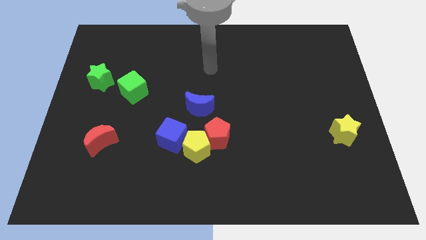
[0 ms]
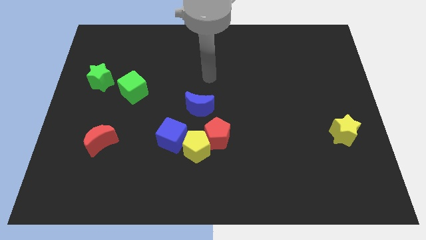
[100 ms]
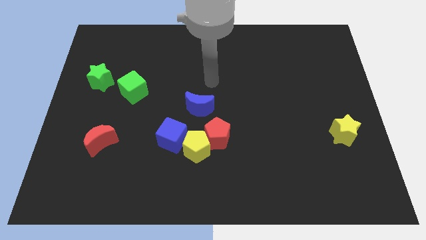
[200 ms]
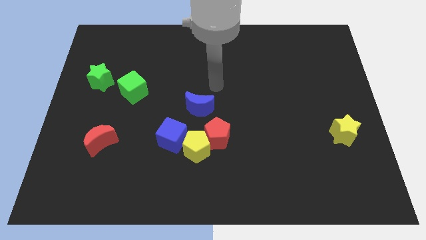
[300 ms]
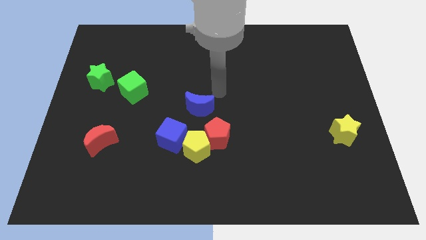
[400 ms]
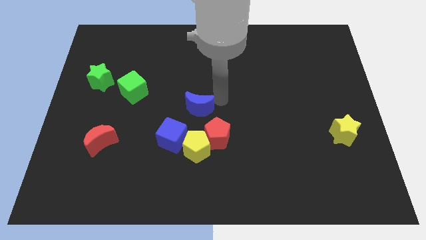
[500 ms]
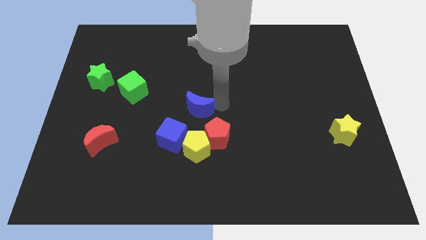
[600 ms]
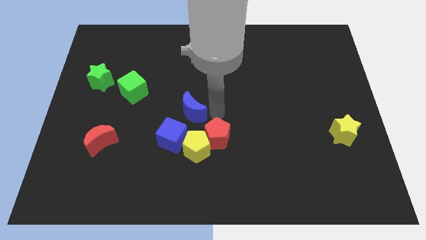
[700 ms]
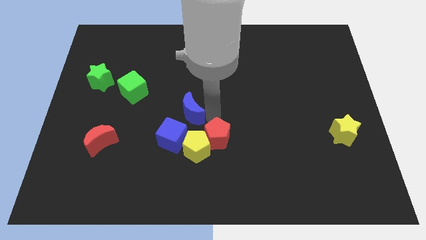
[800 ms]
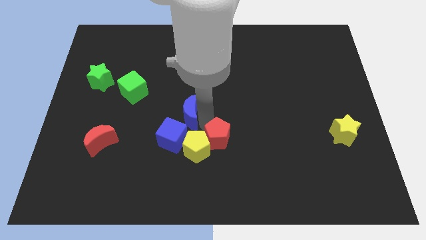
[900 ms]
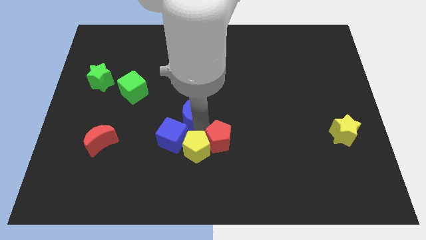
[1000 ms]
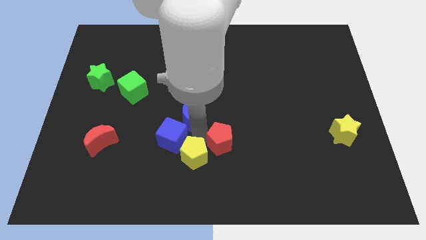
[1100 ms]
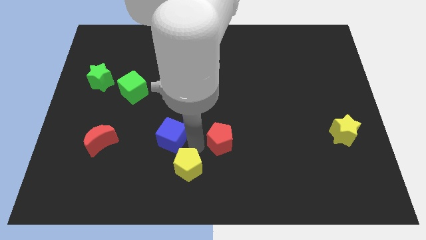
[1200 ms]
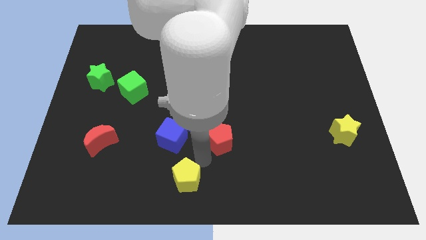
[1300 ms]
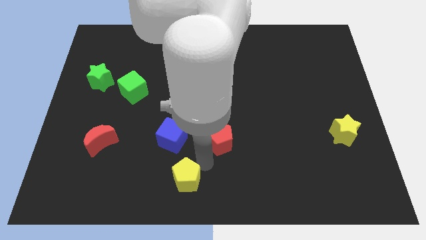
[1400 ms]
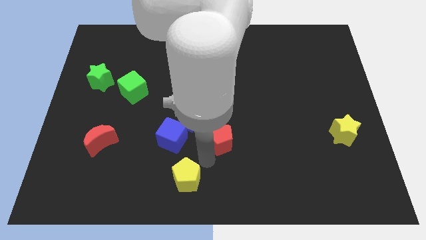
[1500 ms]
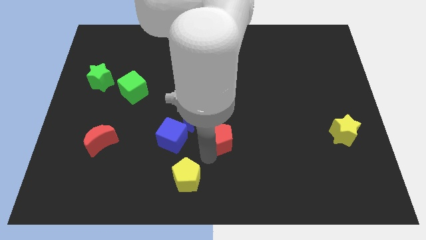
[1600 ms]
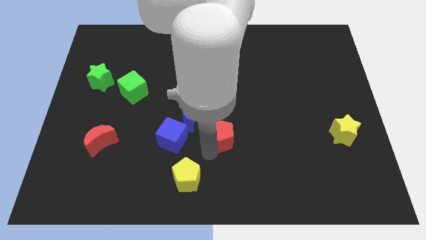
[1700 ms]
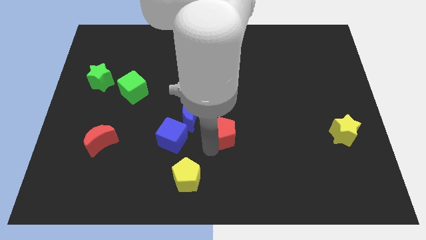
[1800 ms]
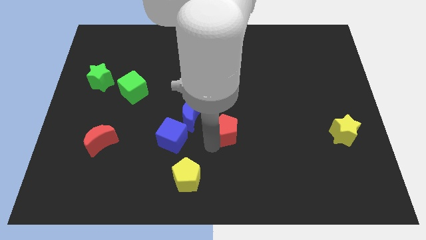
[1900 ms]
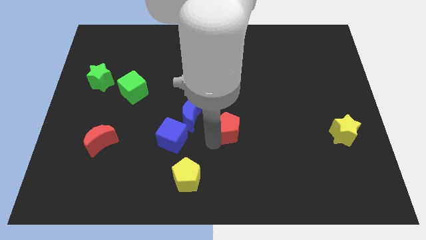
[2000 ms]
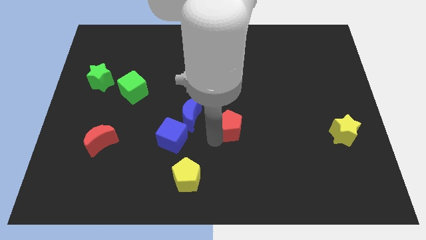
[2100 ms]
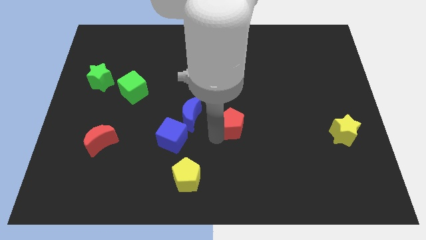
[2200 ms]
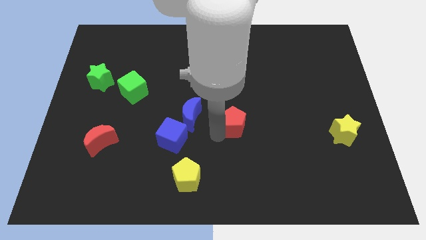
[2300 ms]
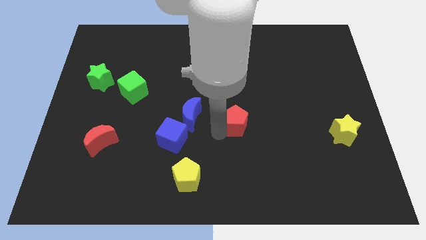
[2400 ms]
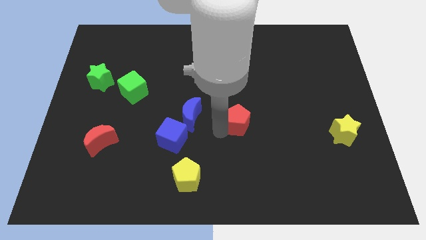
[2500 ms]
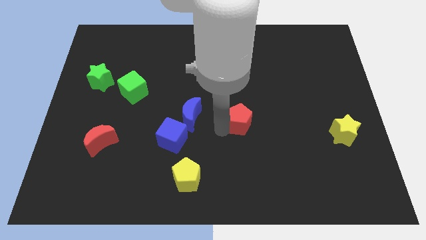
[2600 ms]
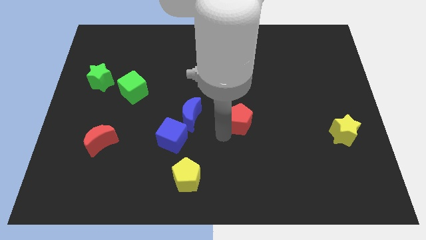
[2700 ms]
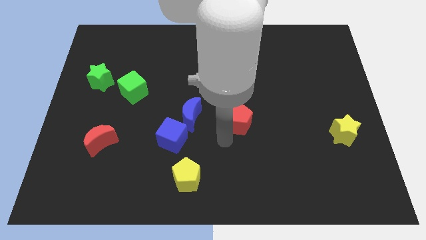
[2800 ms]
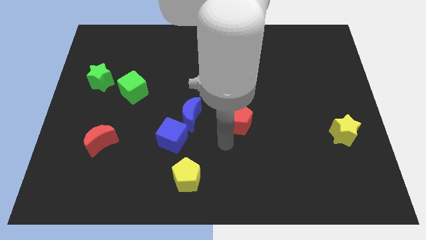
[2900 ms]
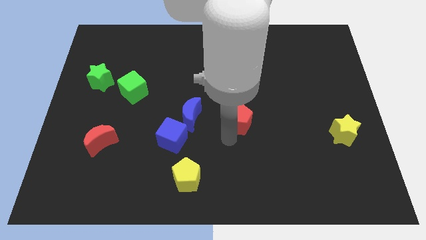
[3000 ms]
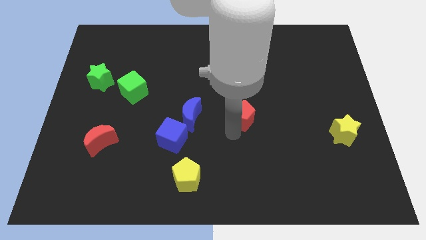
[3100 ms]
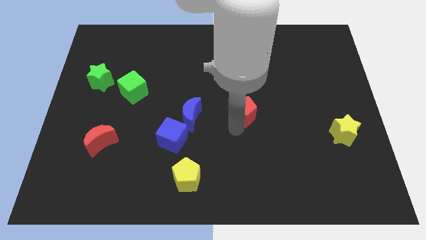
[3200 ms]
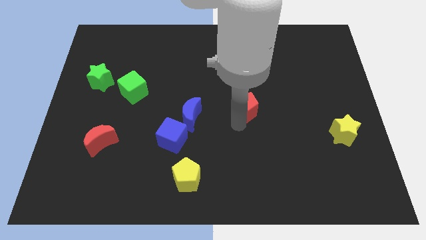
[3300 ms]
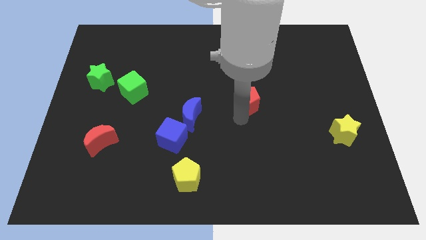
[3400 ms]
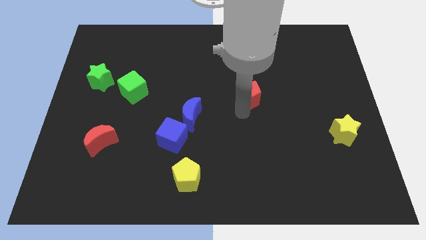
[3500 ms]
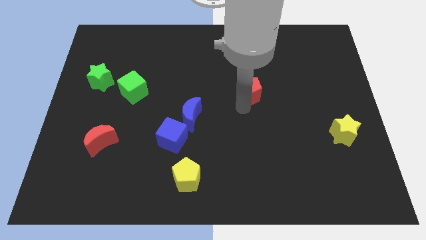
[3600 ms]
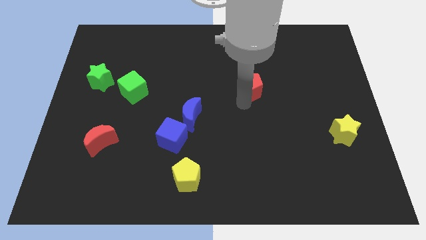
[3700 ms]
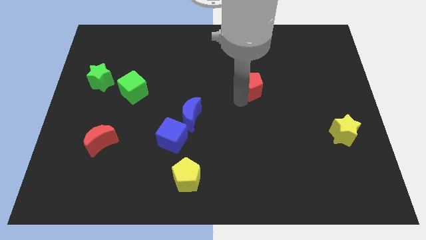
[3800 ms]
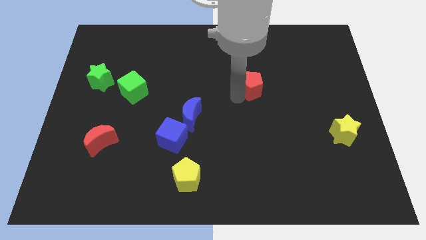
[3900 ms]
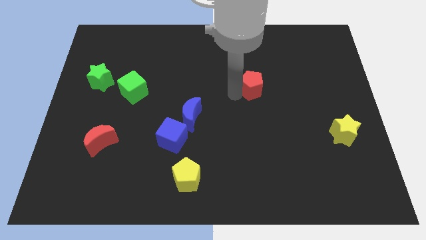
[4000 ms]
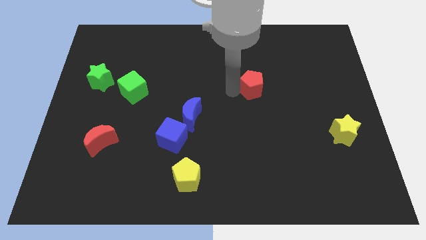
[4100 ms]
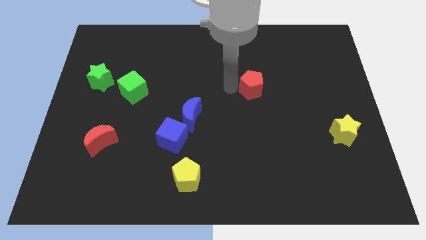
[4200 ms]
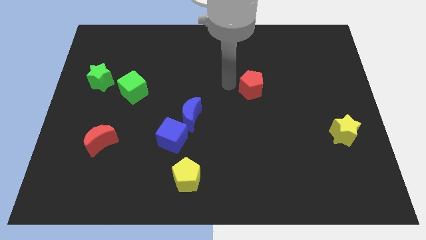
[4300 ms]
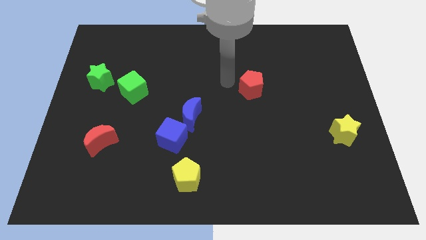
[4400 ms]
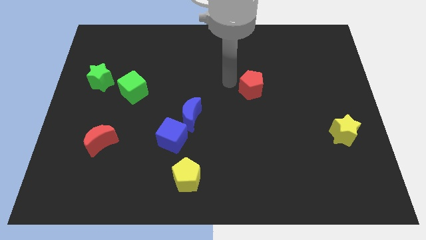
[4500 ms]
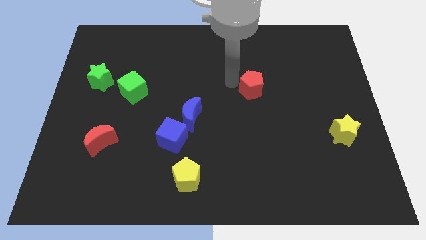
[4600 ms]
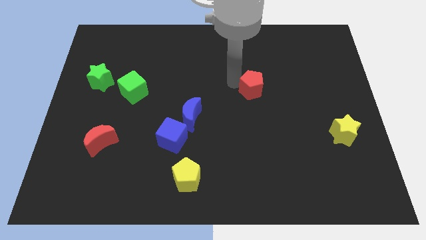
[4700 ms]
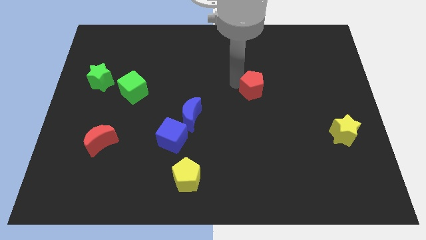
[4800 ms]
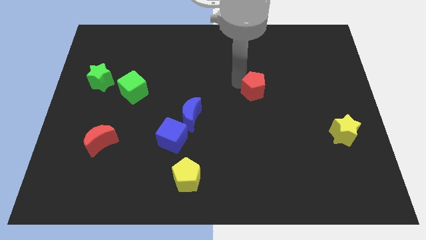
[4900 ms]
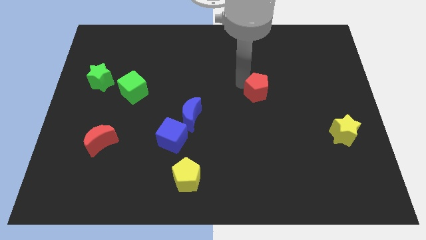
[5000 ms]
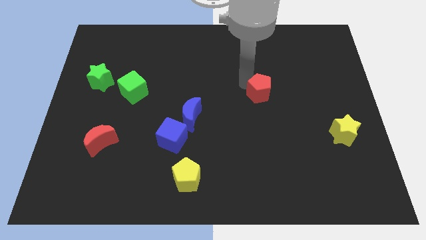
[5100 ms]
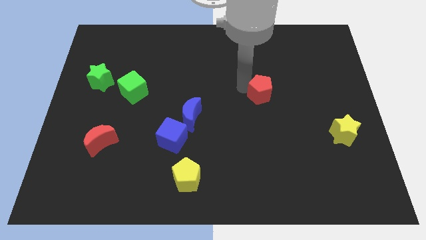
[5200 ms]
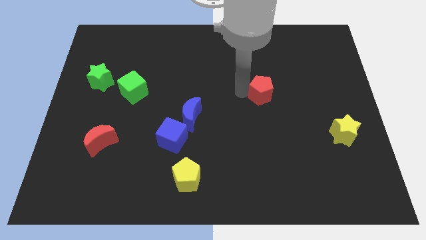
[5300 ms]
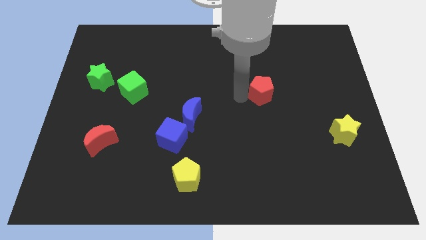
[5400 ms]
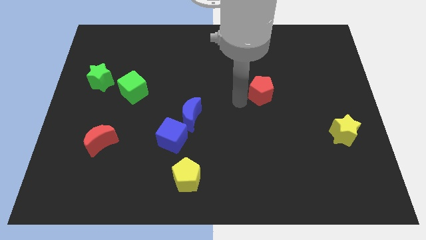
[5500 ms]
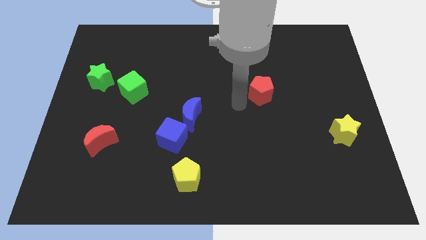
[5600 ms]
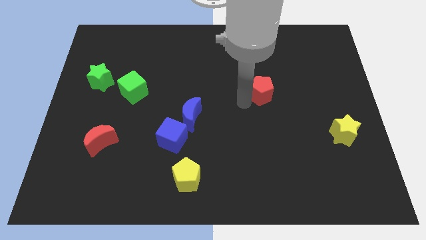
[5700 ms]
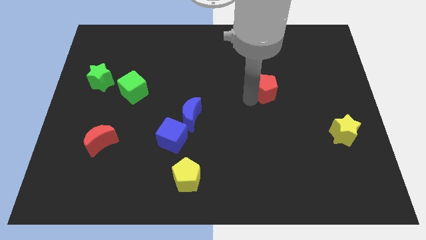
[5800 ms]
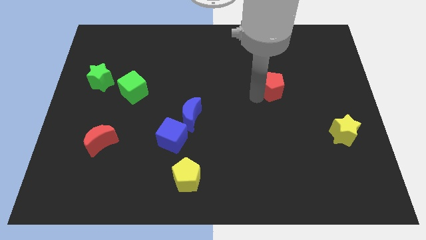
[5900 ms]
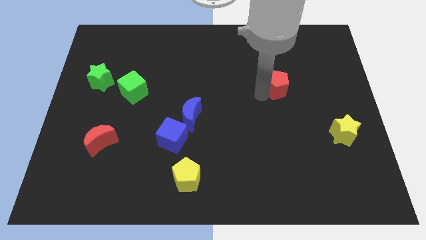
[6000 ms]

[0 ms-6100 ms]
slide the red pentagon upwards and to the right diagonally

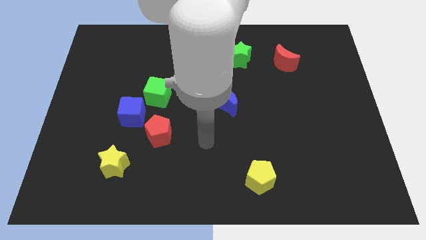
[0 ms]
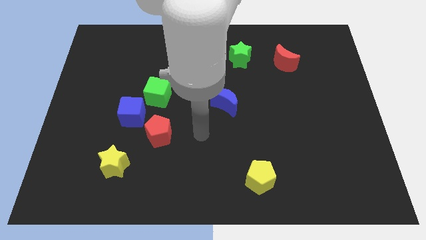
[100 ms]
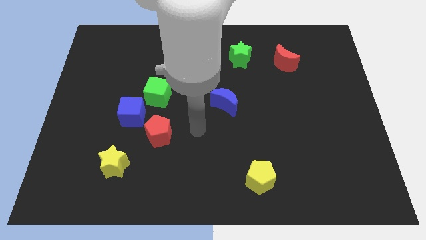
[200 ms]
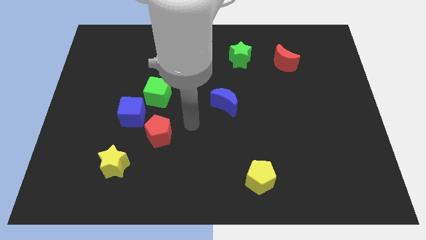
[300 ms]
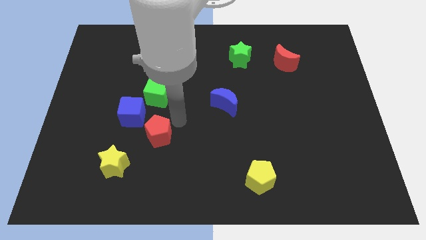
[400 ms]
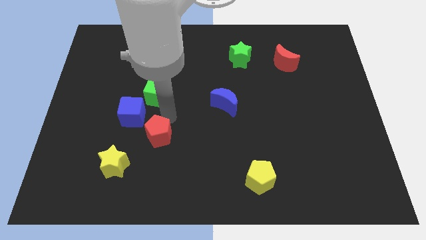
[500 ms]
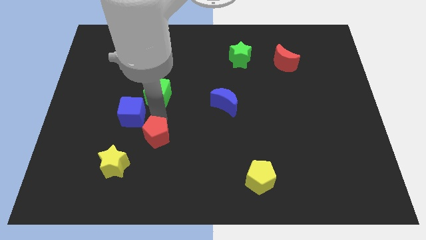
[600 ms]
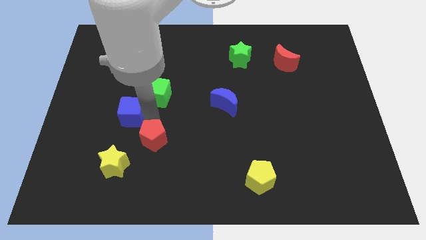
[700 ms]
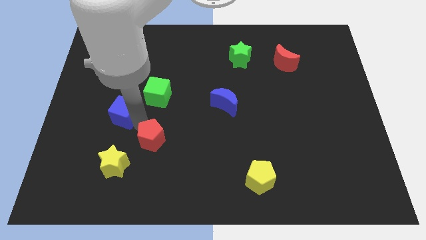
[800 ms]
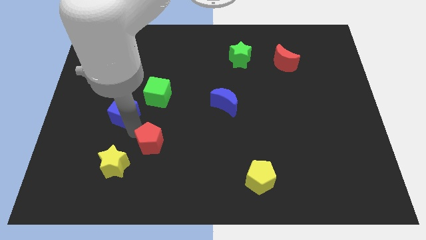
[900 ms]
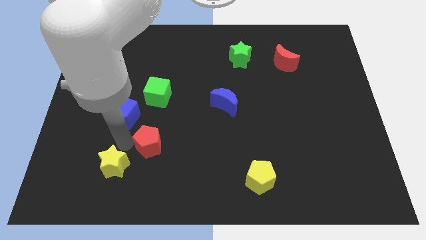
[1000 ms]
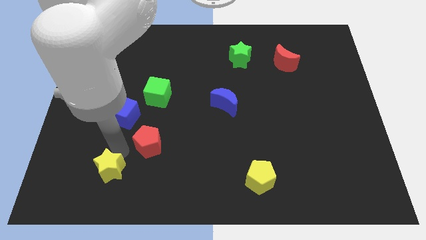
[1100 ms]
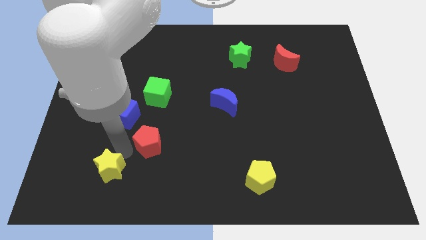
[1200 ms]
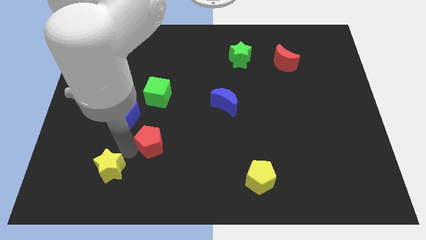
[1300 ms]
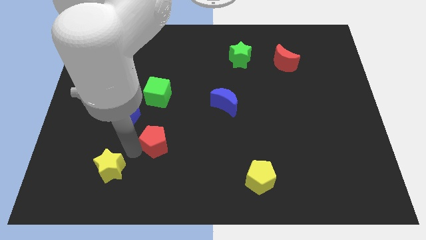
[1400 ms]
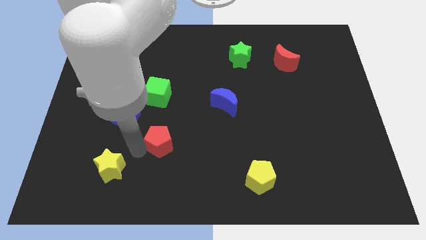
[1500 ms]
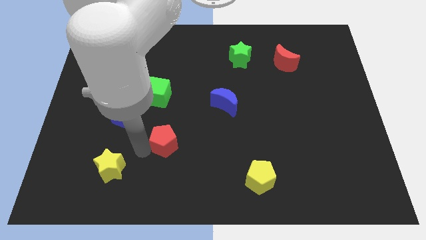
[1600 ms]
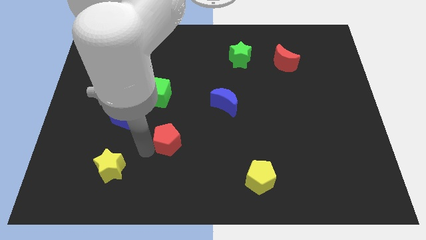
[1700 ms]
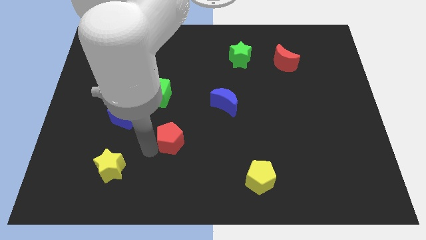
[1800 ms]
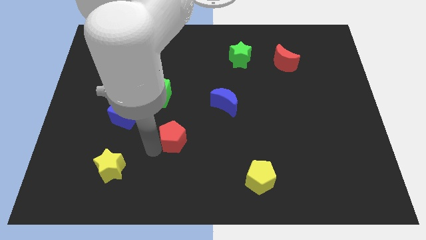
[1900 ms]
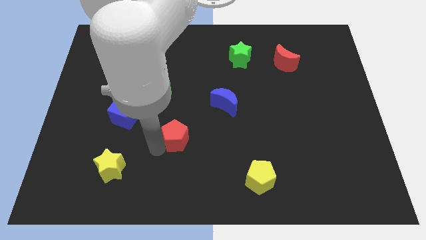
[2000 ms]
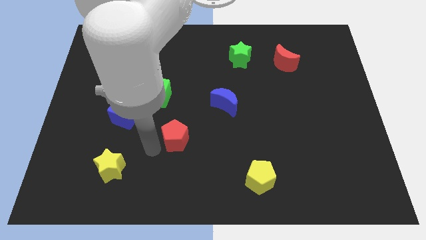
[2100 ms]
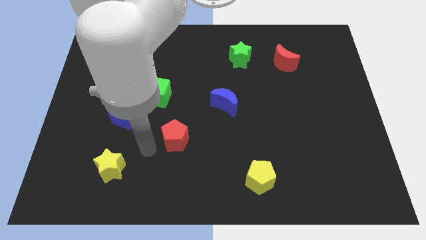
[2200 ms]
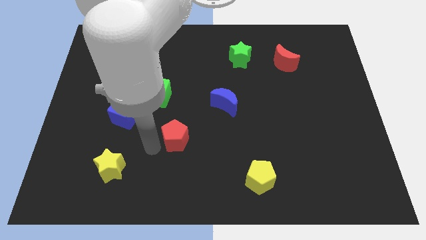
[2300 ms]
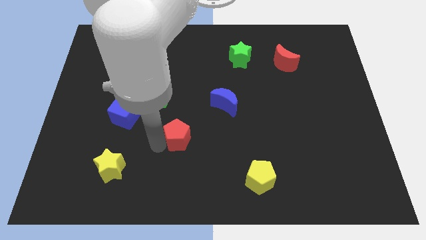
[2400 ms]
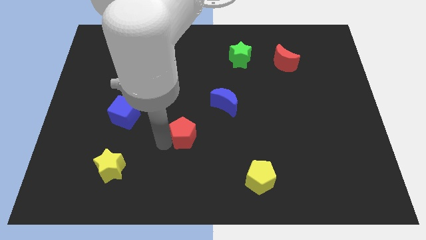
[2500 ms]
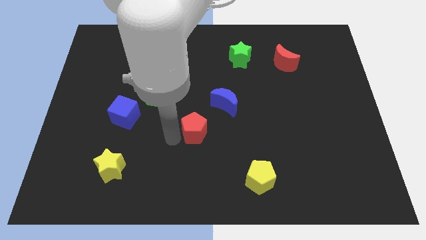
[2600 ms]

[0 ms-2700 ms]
slide the red pentagon right a bit
